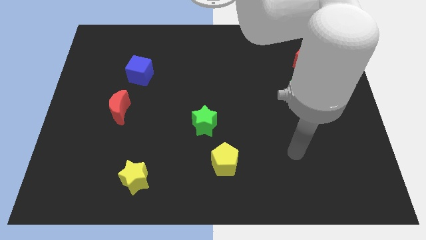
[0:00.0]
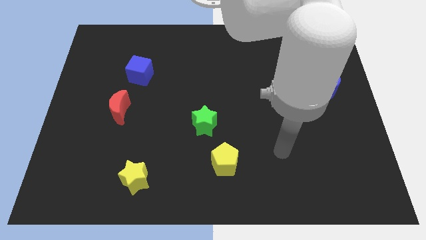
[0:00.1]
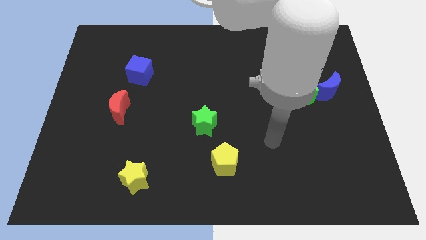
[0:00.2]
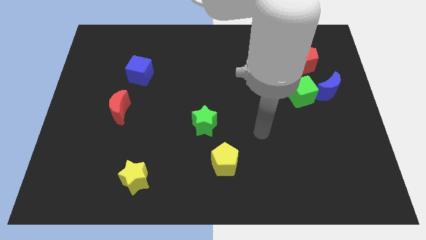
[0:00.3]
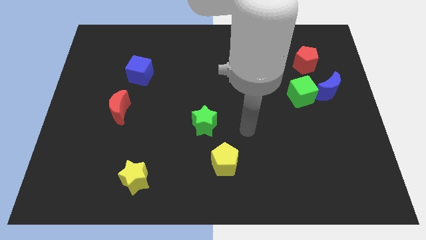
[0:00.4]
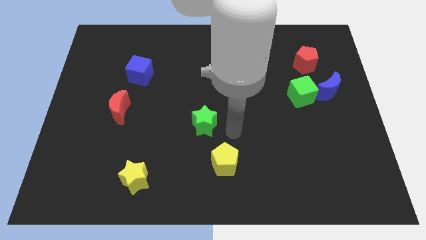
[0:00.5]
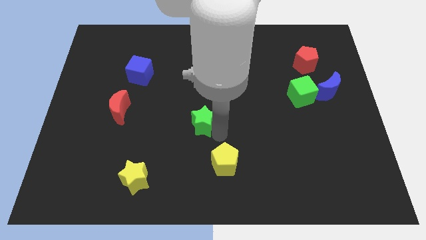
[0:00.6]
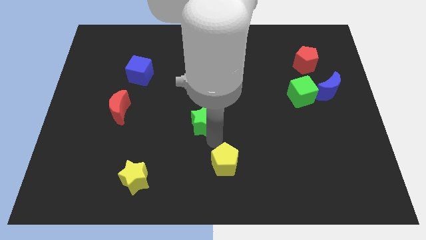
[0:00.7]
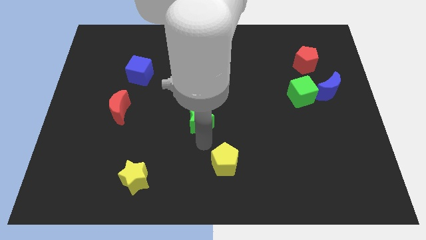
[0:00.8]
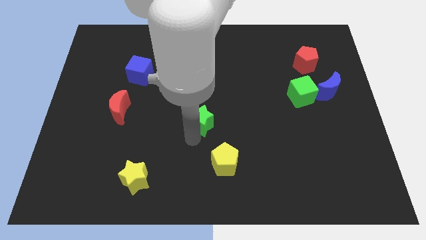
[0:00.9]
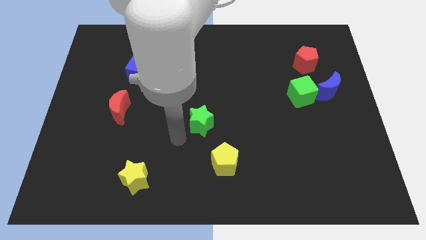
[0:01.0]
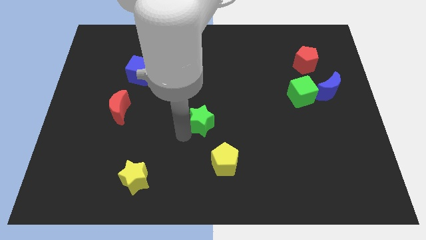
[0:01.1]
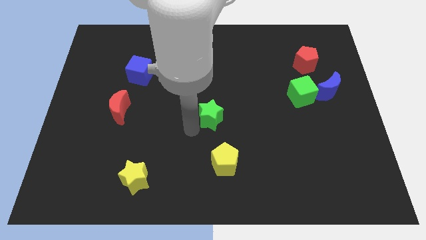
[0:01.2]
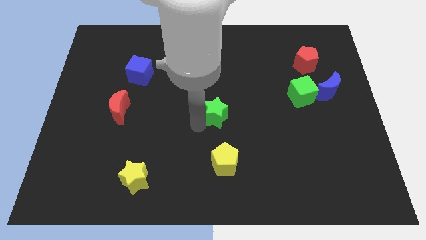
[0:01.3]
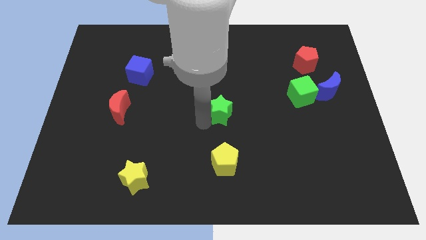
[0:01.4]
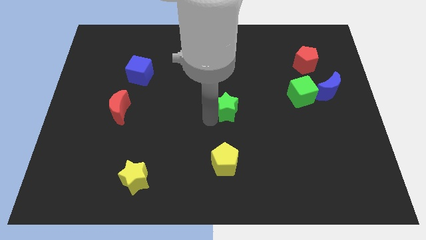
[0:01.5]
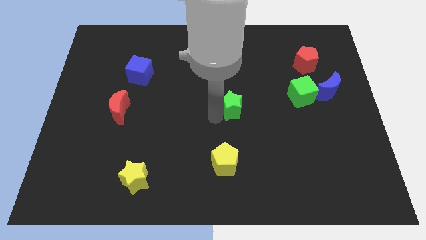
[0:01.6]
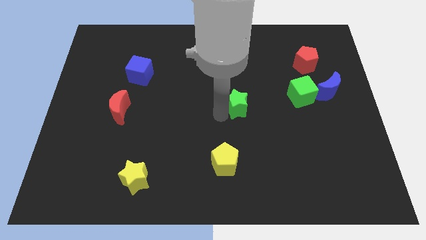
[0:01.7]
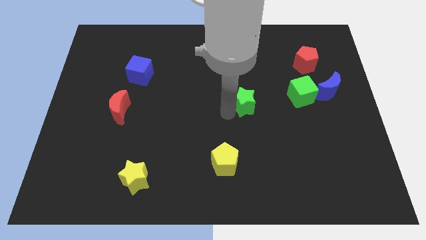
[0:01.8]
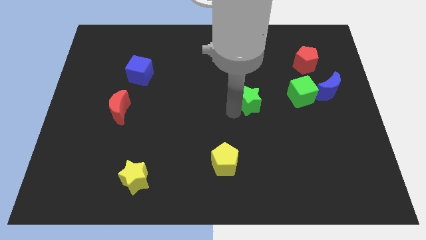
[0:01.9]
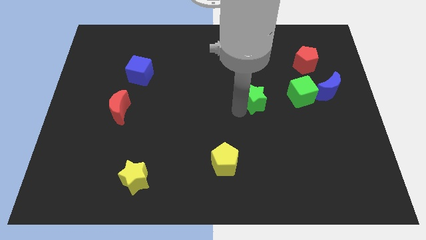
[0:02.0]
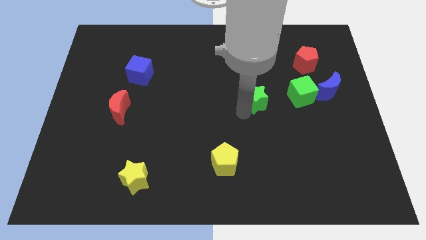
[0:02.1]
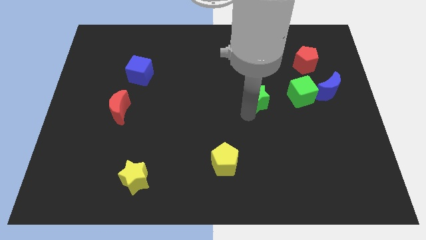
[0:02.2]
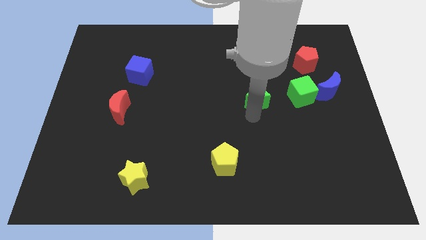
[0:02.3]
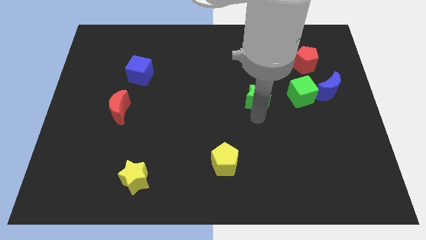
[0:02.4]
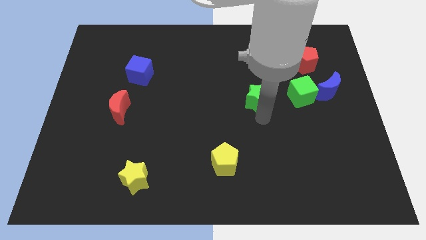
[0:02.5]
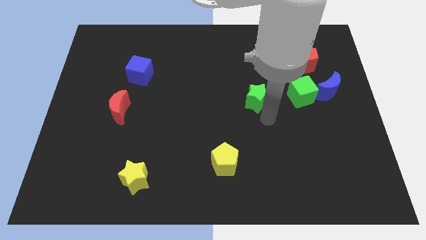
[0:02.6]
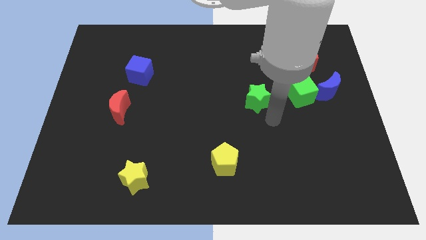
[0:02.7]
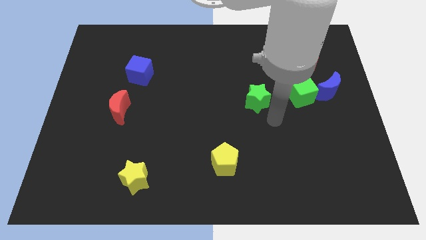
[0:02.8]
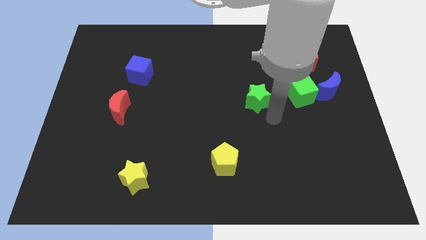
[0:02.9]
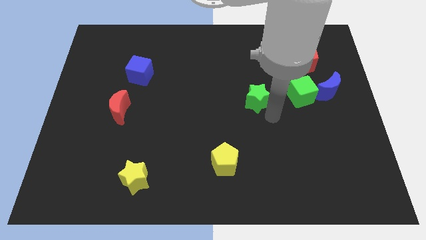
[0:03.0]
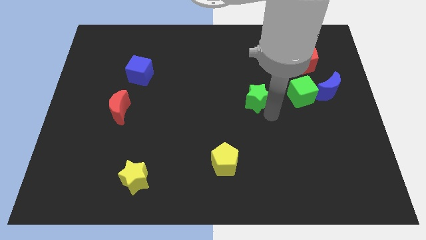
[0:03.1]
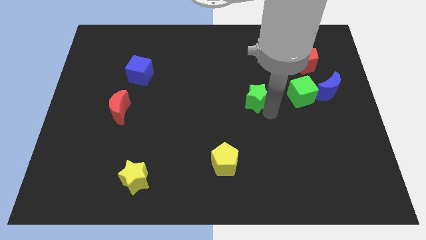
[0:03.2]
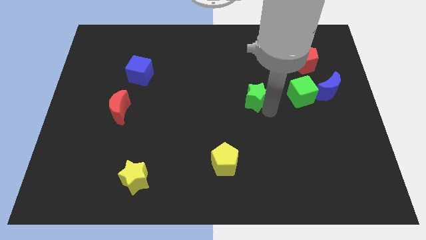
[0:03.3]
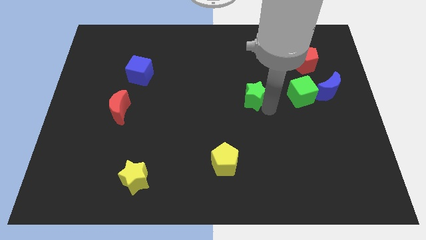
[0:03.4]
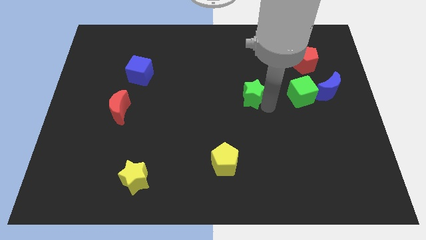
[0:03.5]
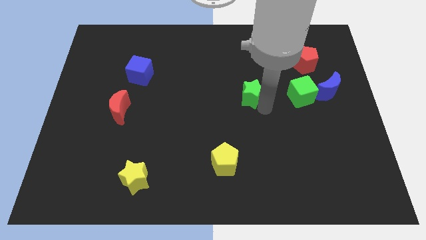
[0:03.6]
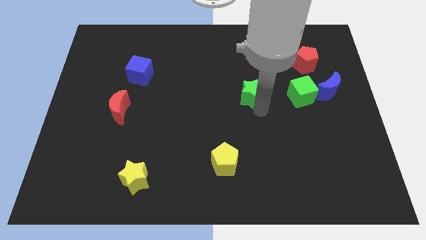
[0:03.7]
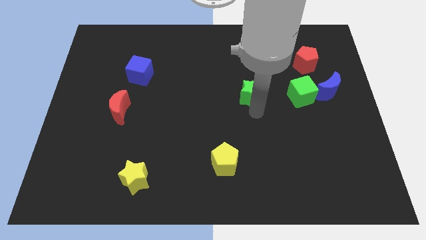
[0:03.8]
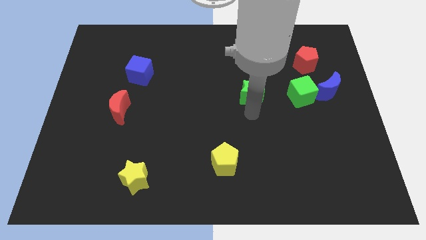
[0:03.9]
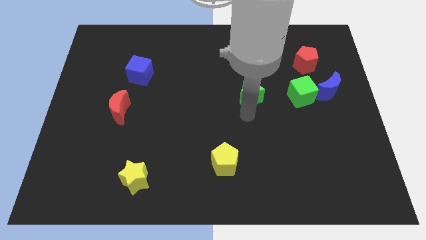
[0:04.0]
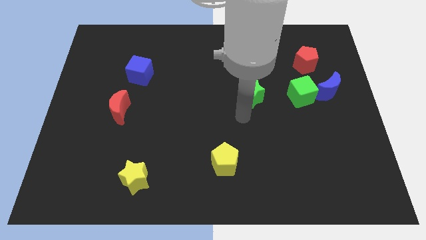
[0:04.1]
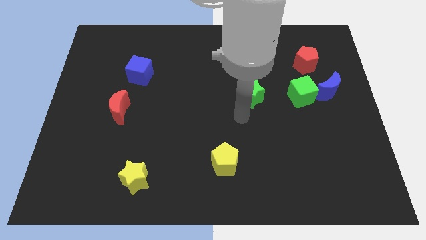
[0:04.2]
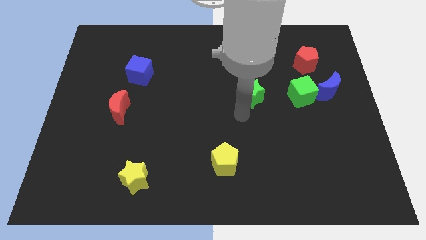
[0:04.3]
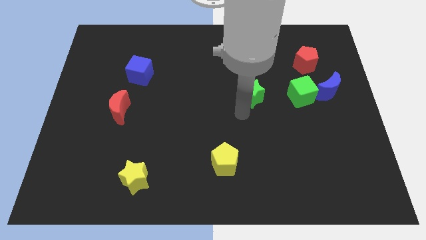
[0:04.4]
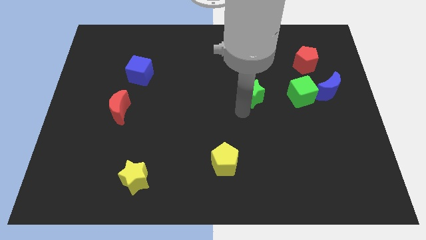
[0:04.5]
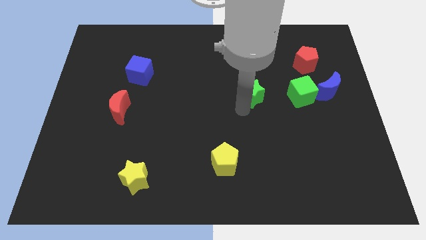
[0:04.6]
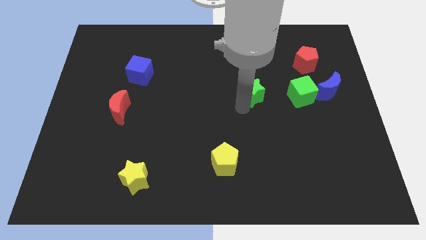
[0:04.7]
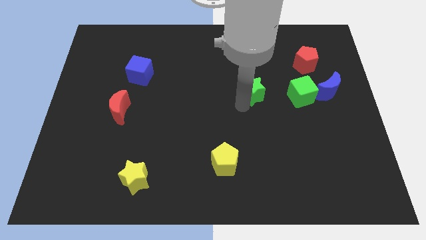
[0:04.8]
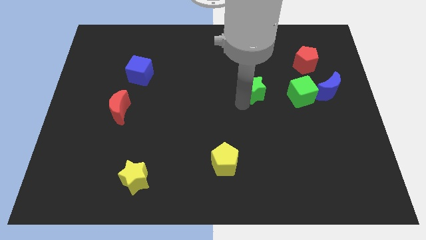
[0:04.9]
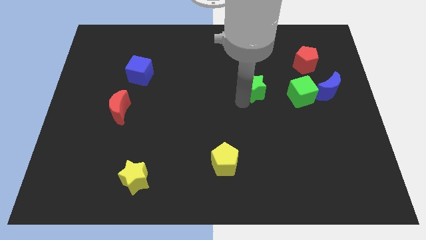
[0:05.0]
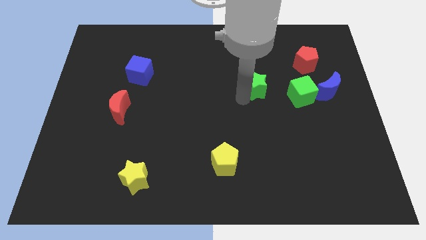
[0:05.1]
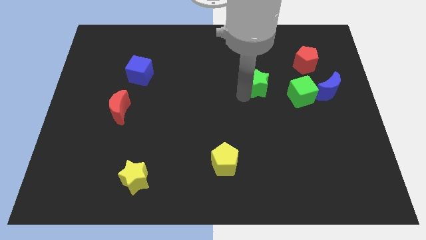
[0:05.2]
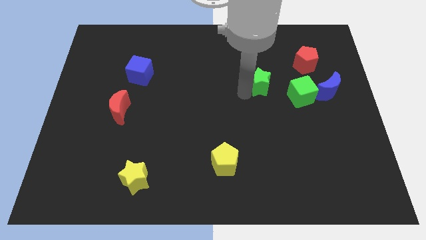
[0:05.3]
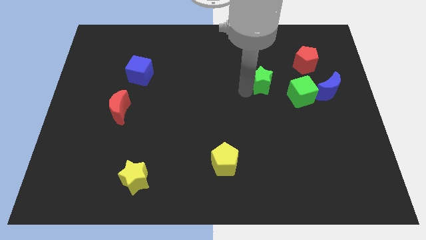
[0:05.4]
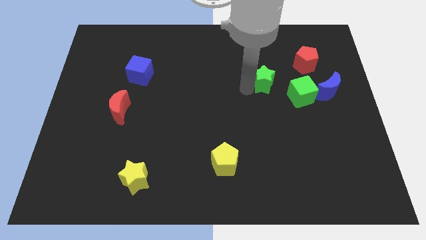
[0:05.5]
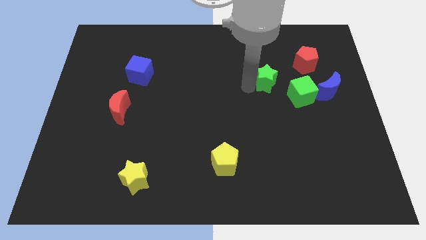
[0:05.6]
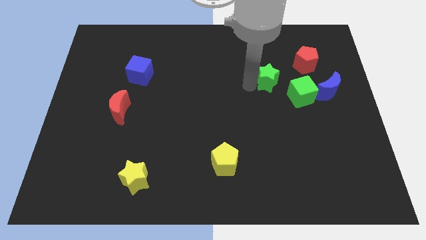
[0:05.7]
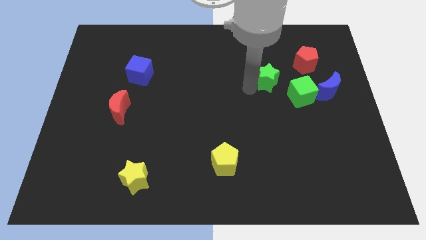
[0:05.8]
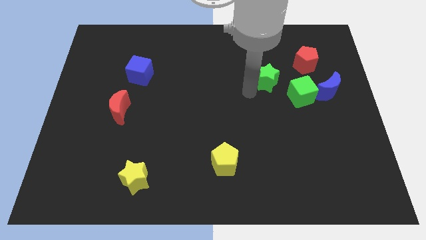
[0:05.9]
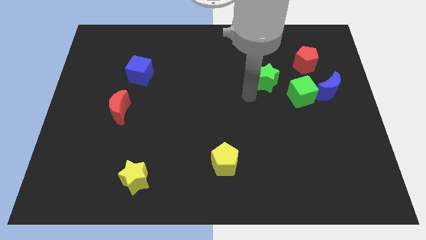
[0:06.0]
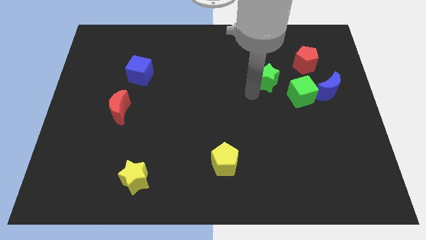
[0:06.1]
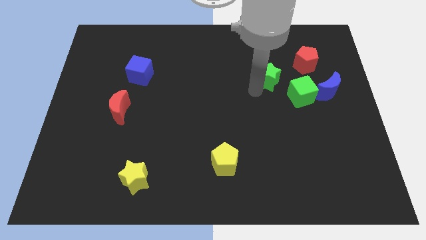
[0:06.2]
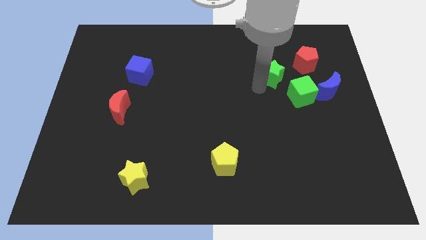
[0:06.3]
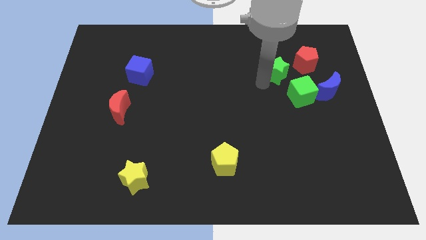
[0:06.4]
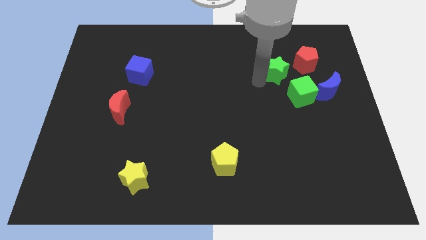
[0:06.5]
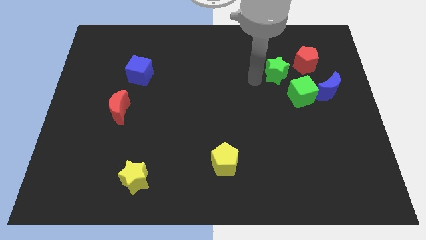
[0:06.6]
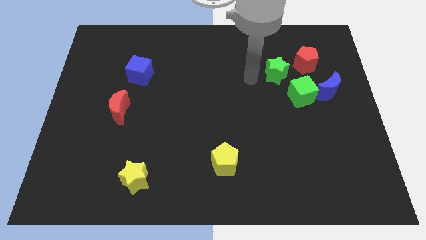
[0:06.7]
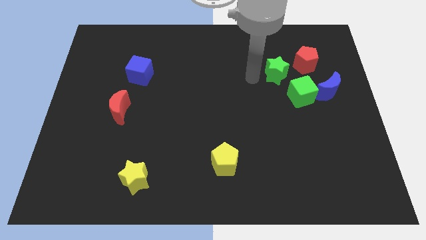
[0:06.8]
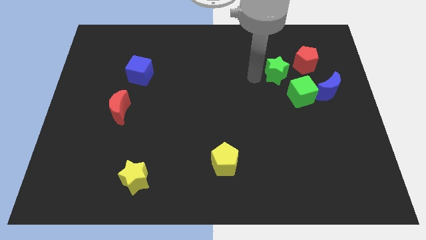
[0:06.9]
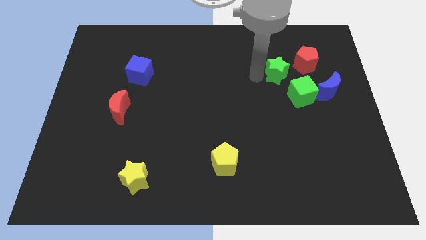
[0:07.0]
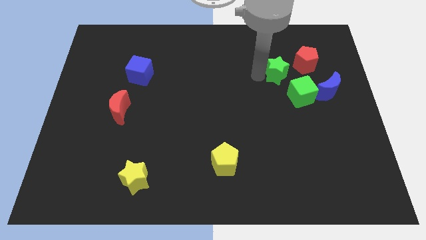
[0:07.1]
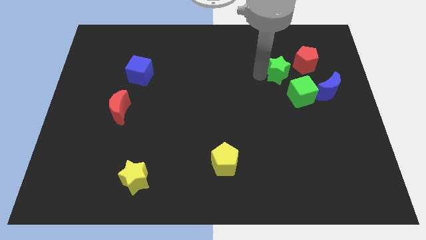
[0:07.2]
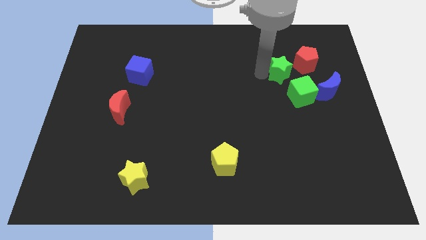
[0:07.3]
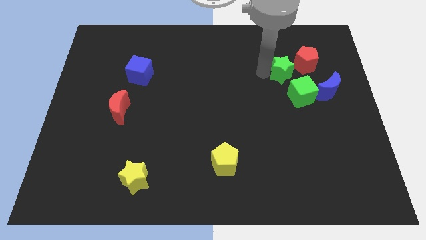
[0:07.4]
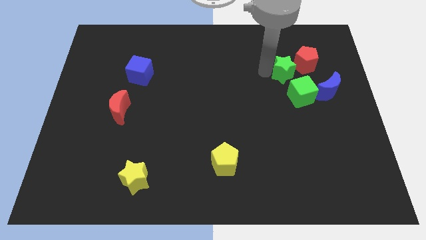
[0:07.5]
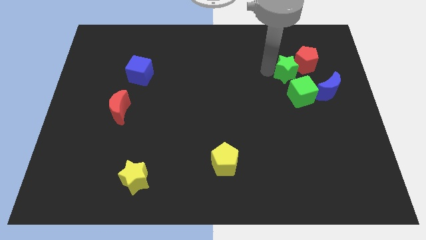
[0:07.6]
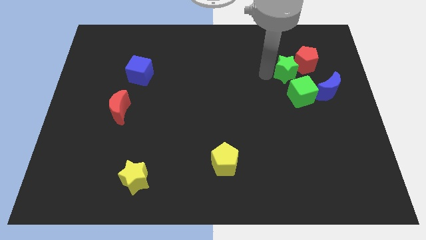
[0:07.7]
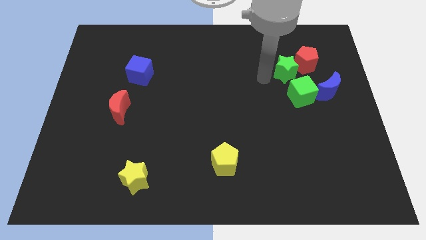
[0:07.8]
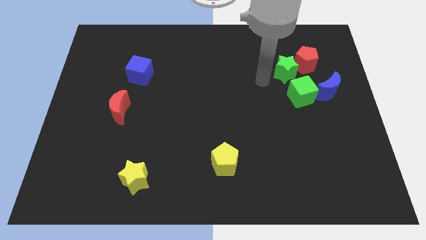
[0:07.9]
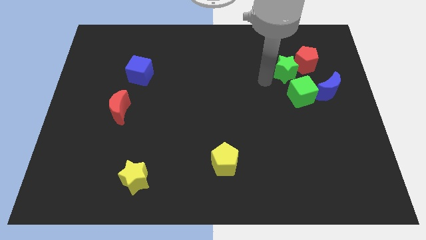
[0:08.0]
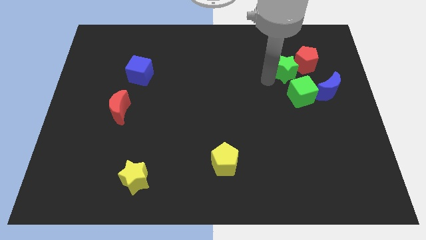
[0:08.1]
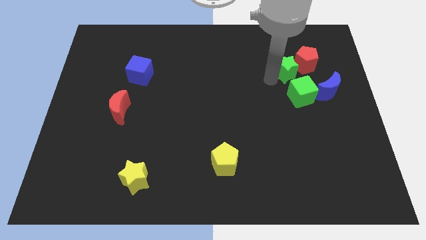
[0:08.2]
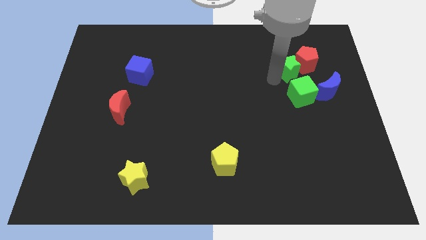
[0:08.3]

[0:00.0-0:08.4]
put the green star next to the red pentagon
